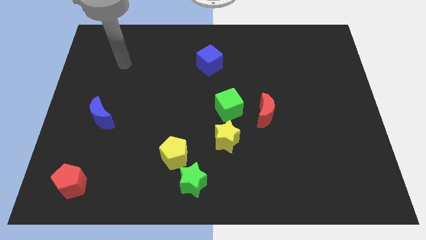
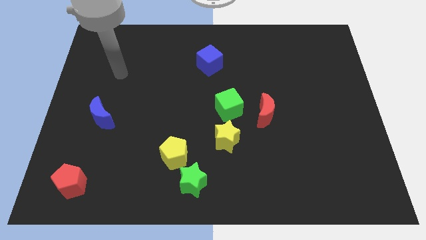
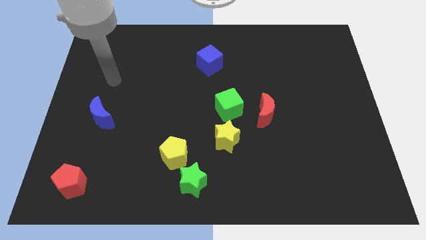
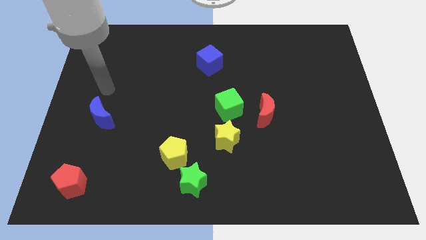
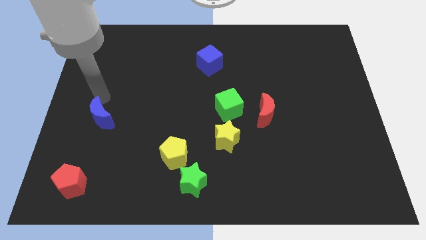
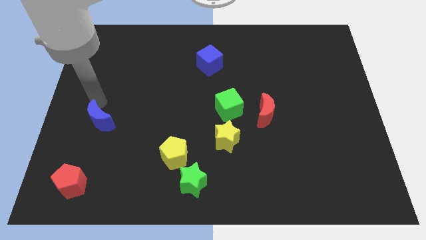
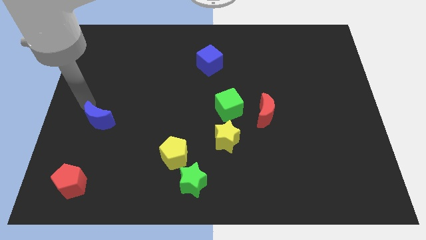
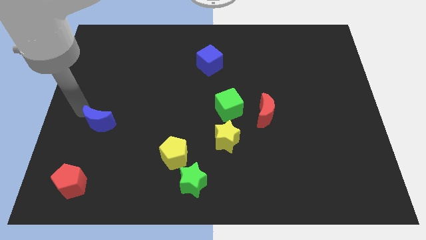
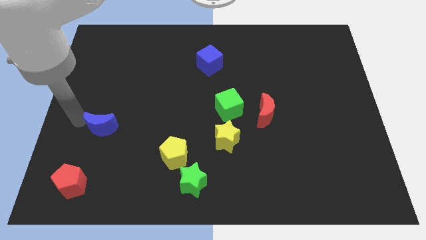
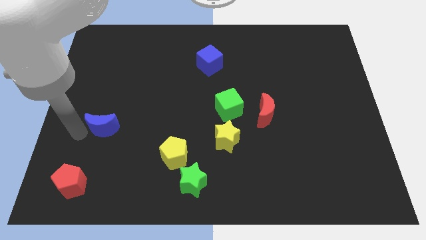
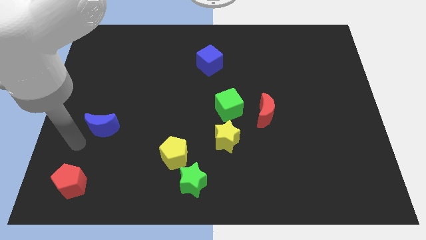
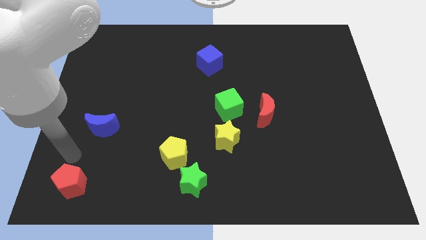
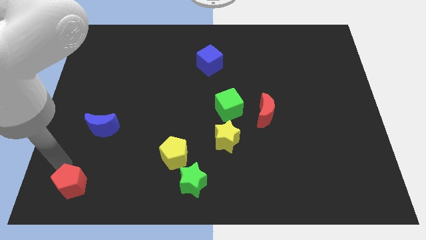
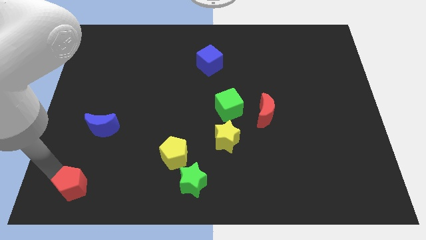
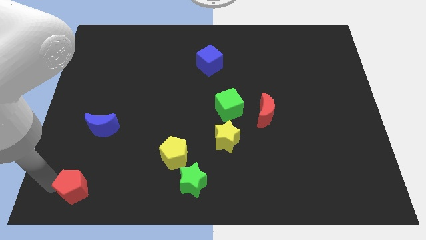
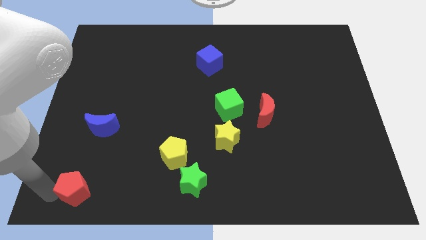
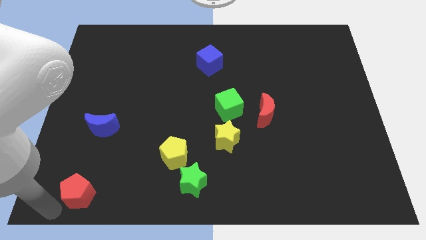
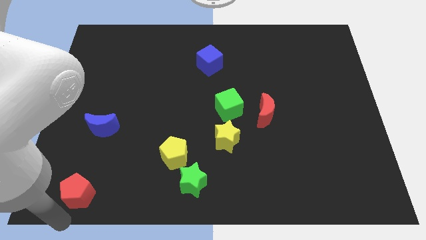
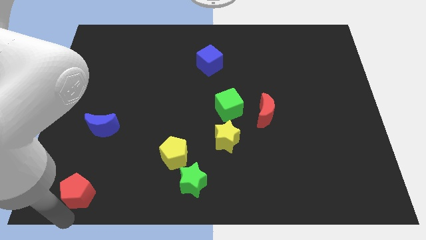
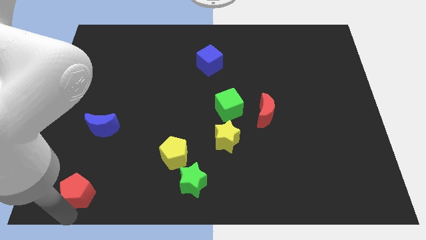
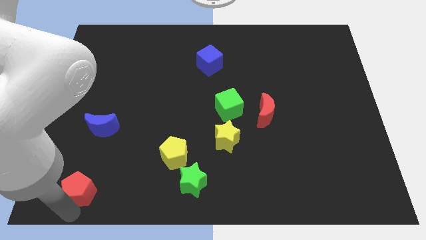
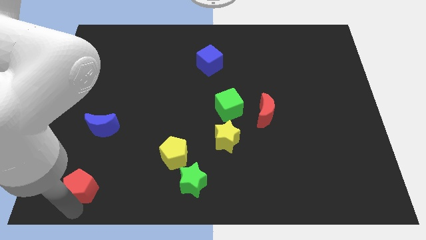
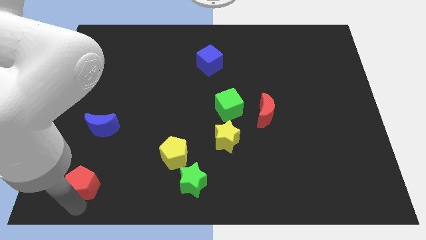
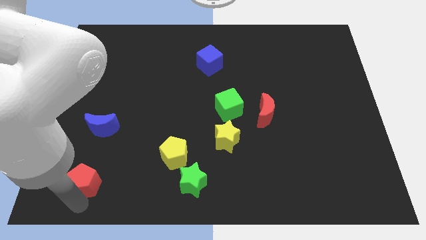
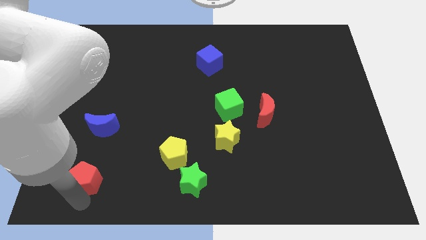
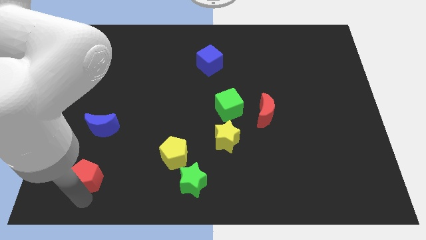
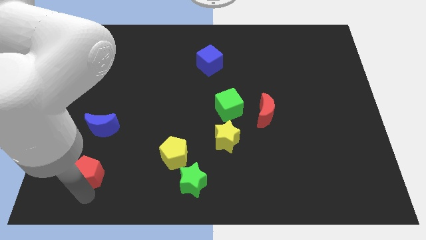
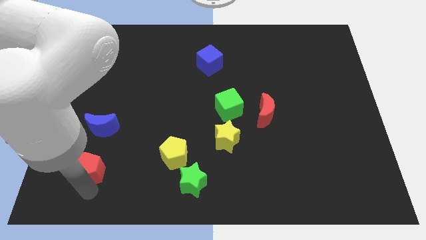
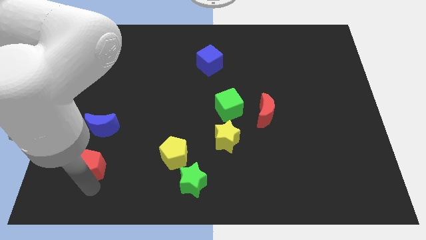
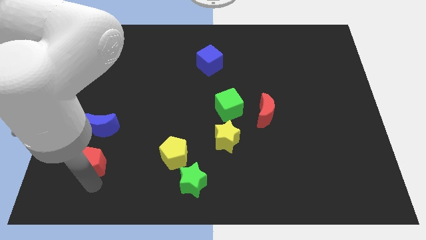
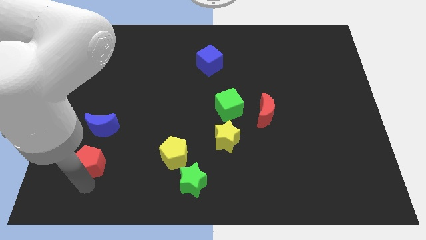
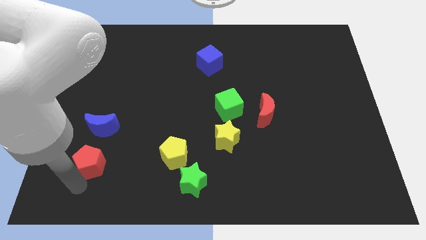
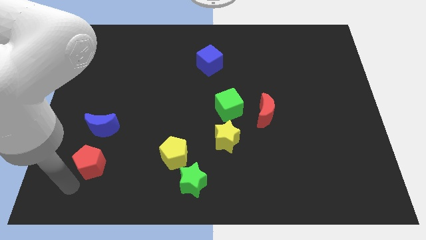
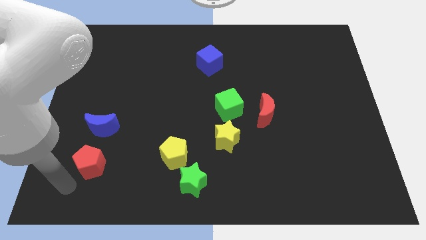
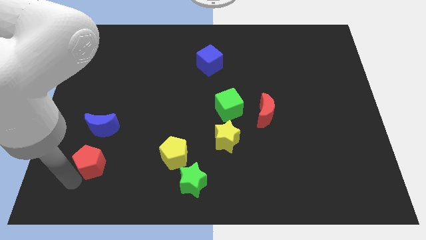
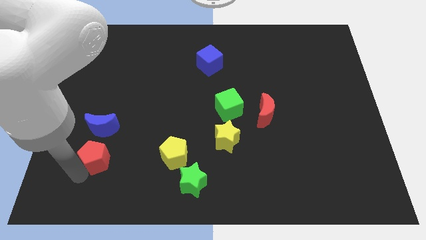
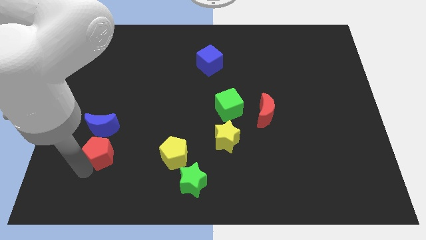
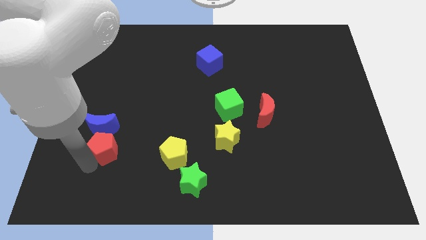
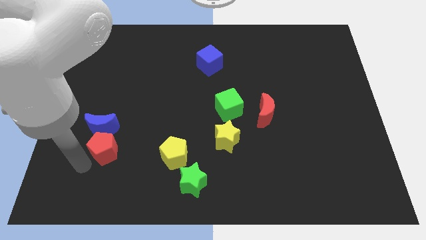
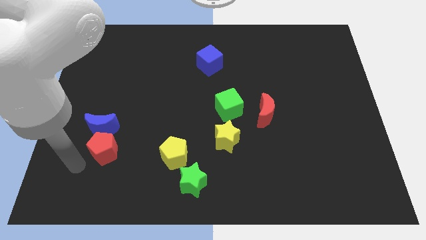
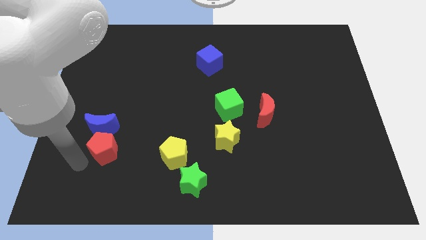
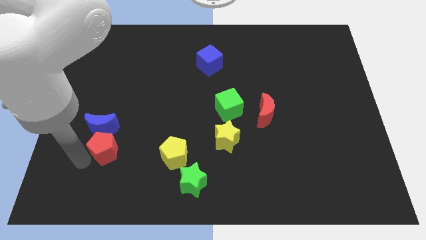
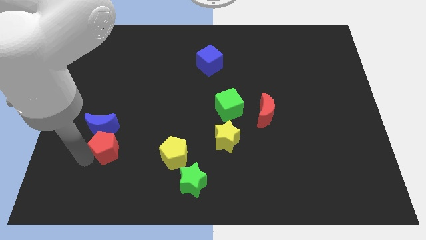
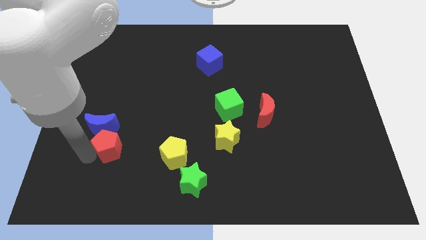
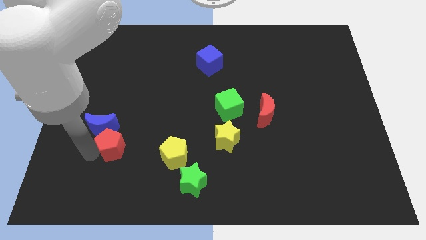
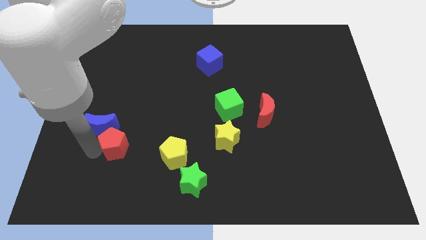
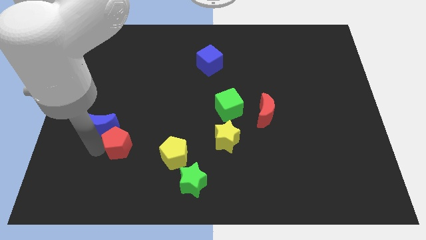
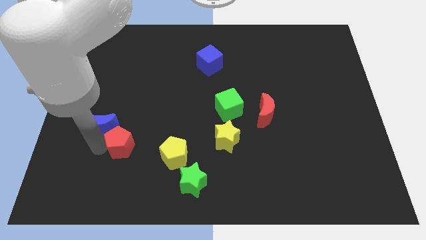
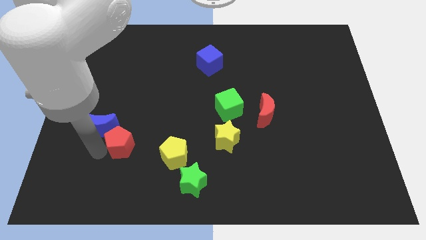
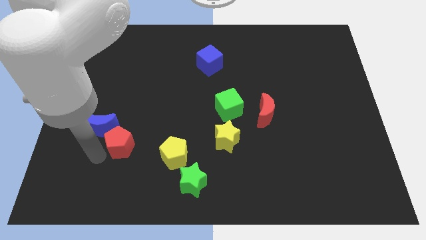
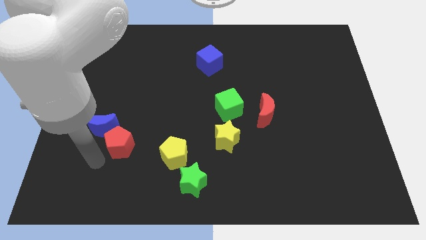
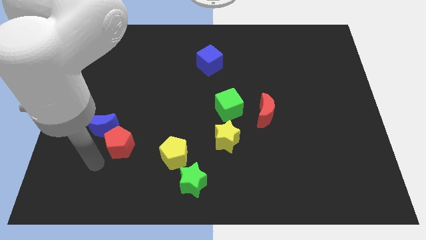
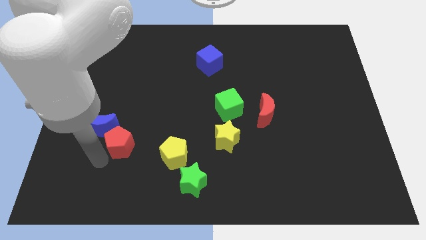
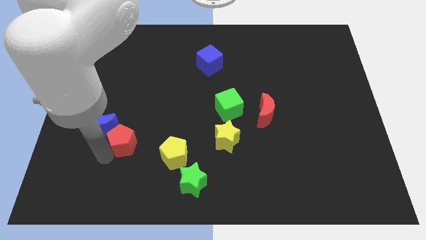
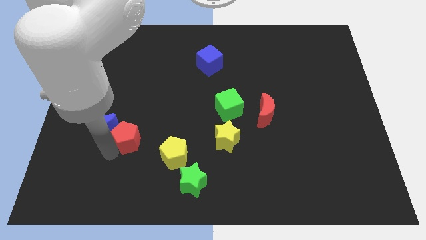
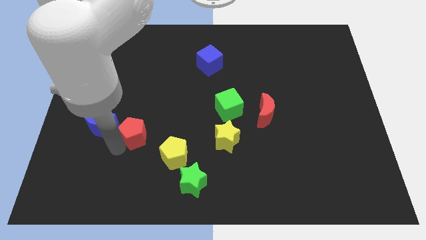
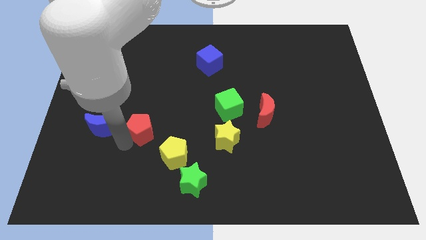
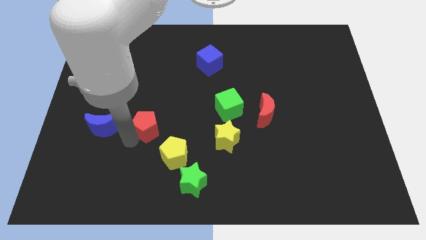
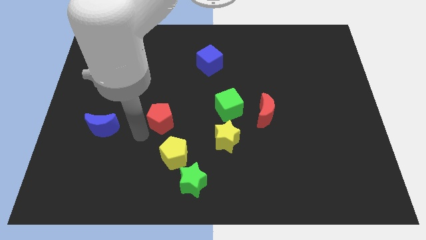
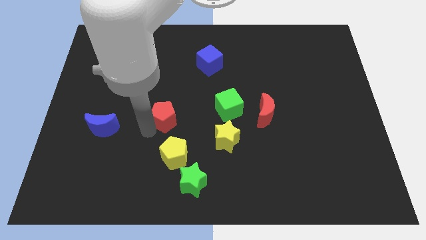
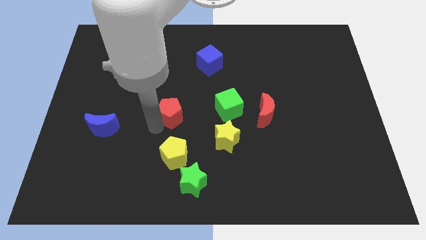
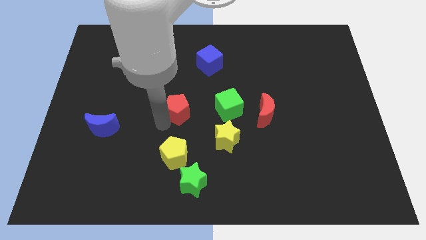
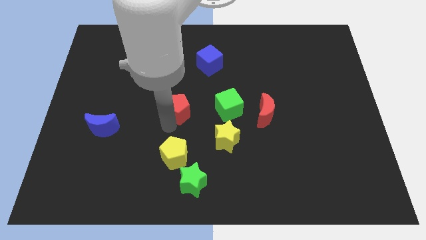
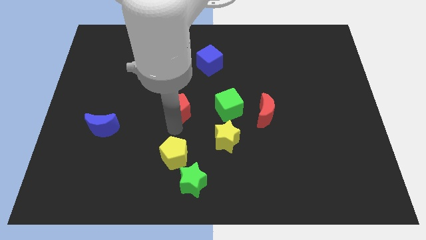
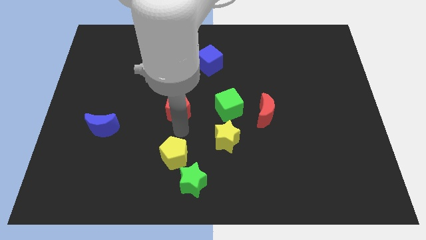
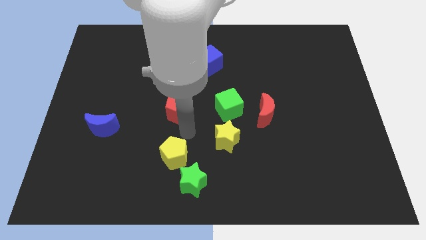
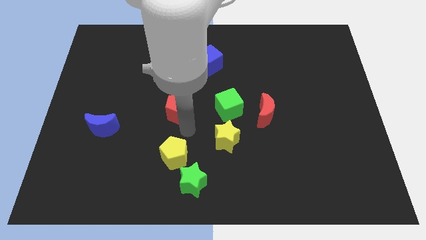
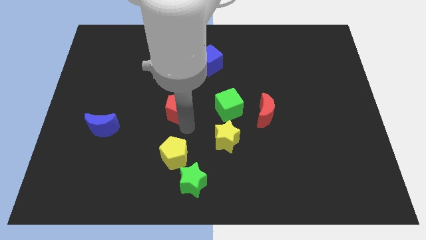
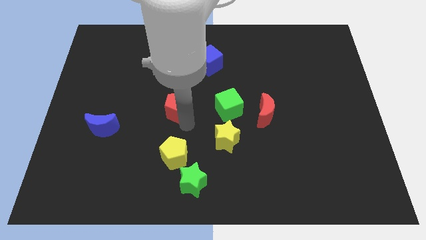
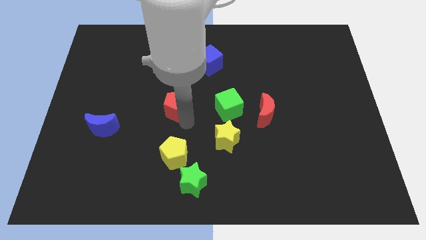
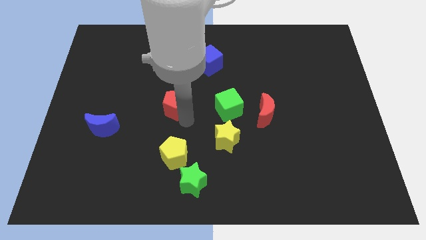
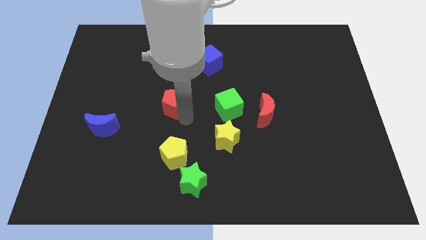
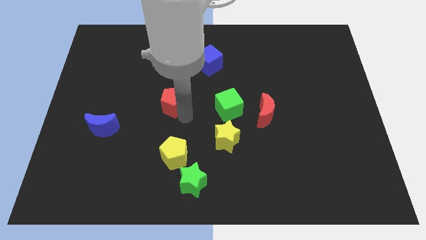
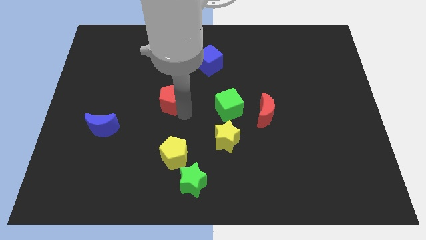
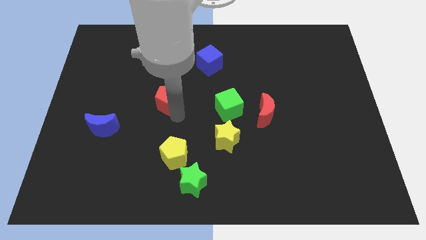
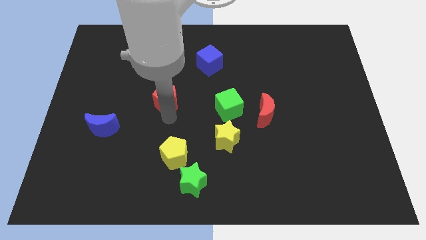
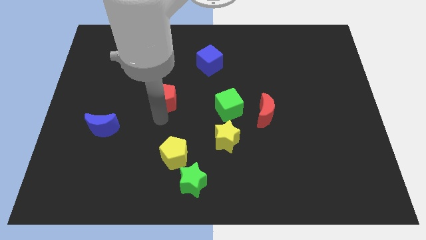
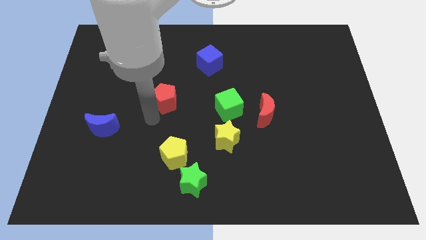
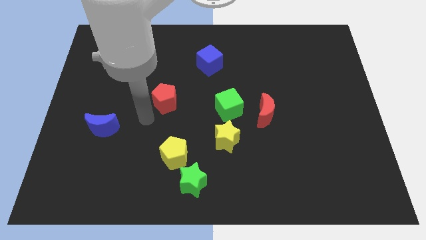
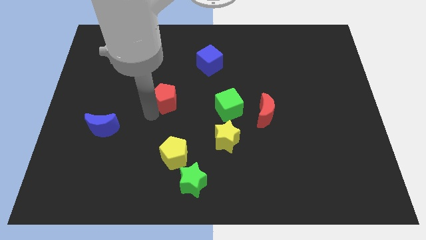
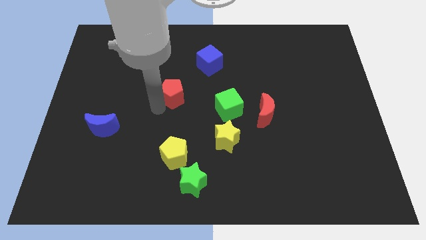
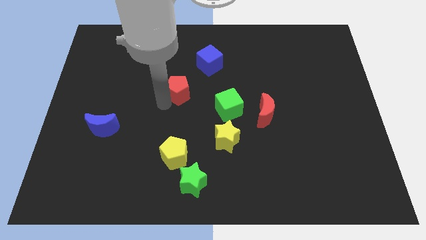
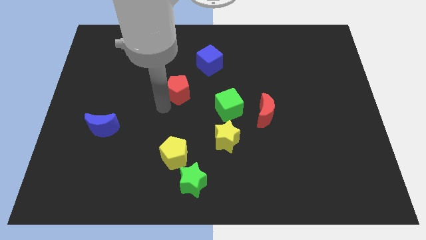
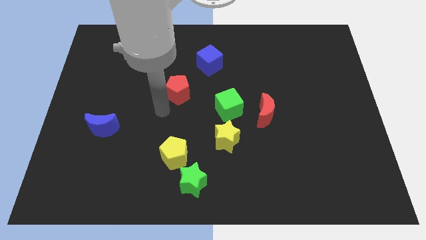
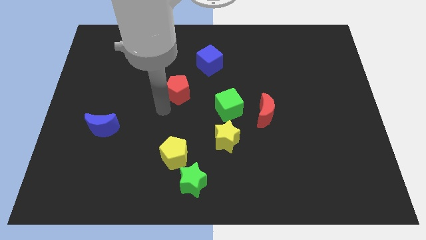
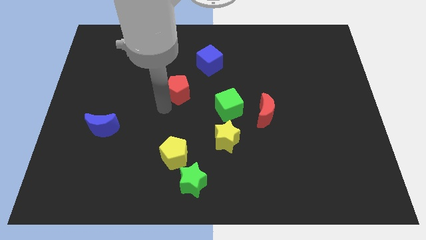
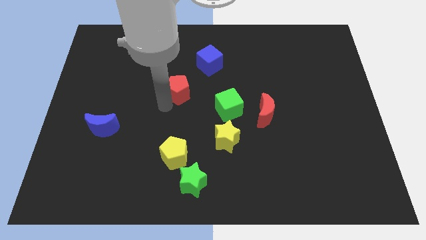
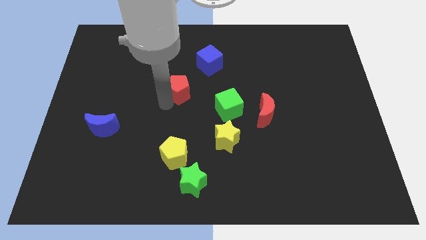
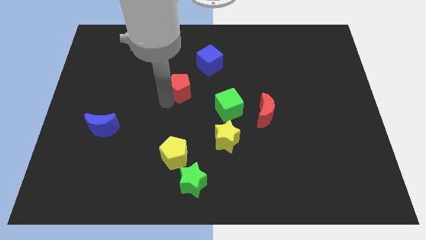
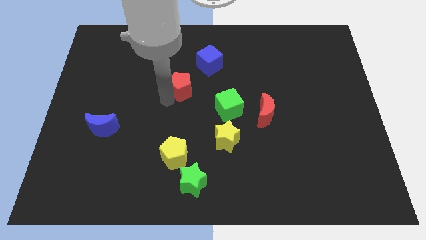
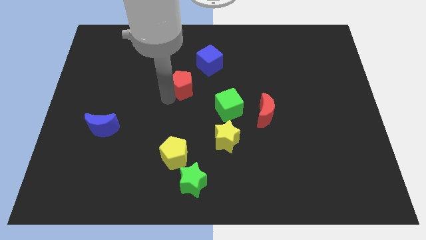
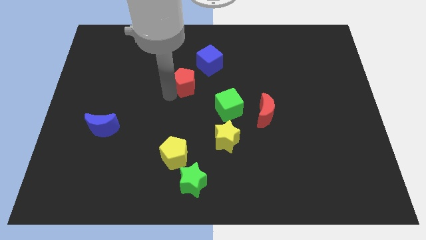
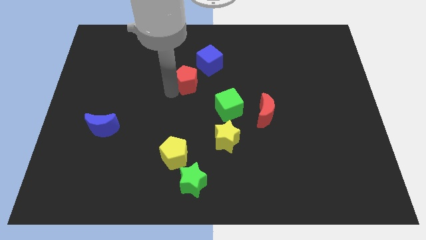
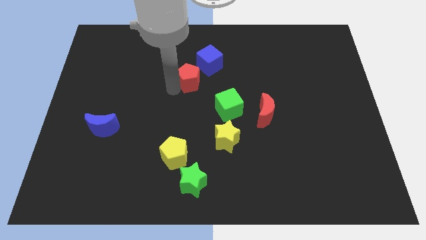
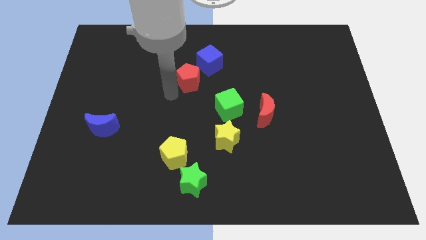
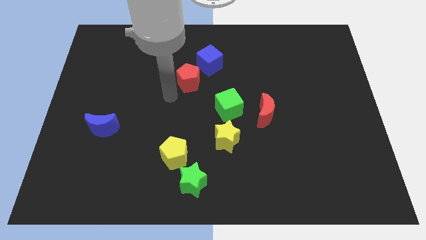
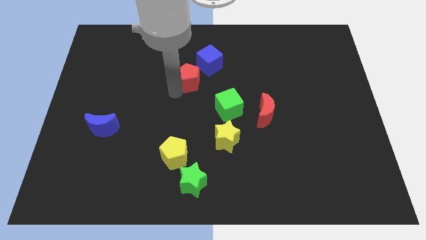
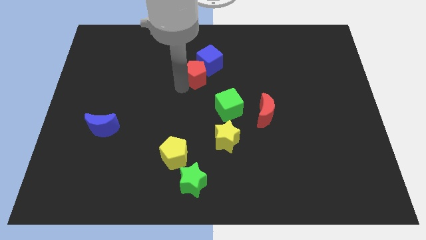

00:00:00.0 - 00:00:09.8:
put the red pentagon close to the blue cube
